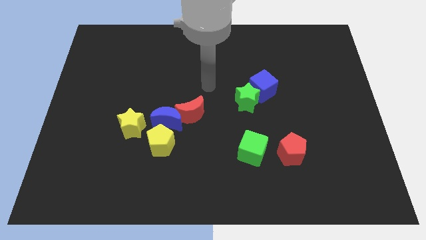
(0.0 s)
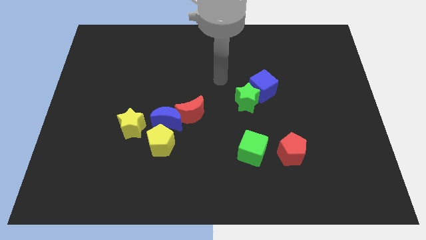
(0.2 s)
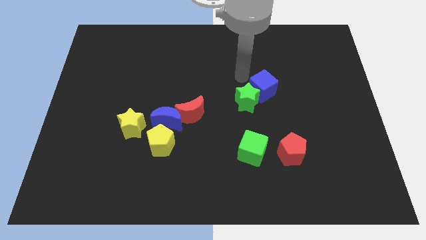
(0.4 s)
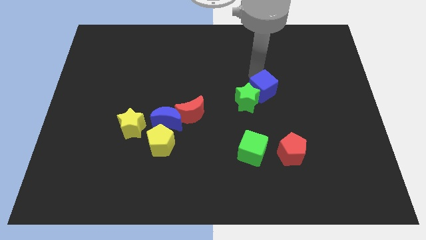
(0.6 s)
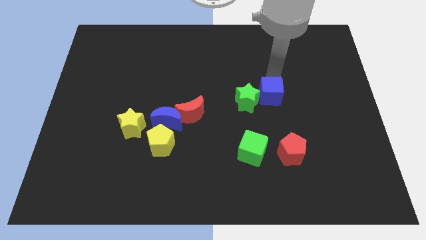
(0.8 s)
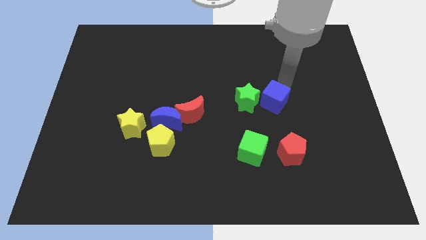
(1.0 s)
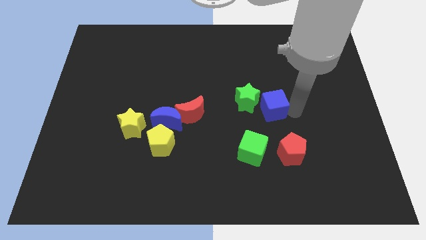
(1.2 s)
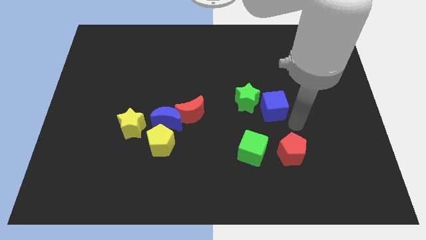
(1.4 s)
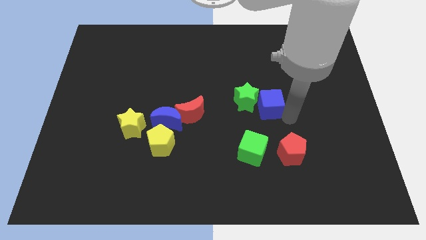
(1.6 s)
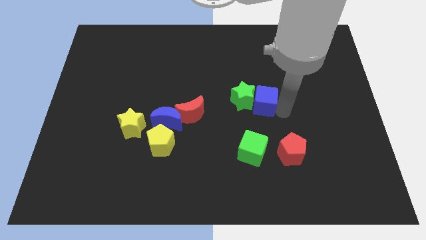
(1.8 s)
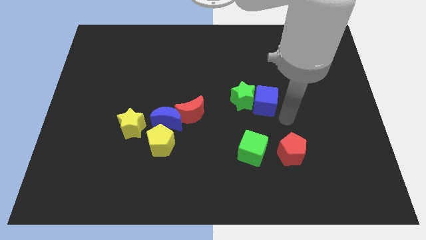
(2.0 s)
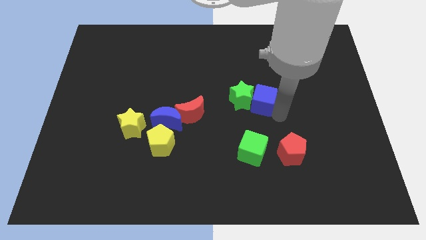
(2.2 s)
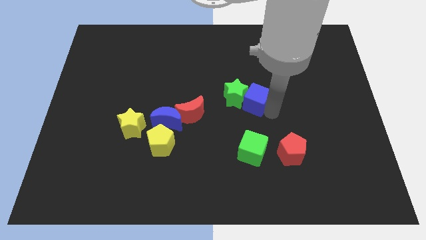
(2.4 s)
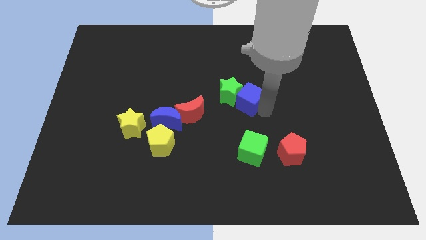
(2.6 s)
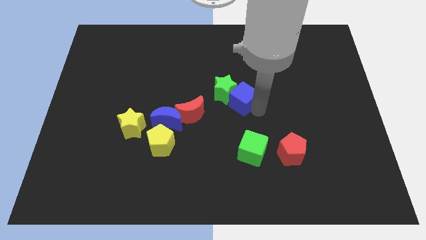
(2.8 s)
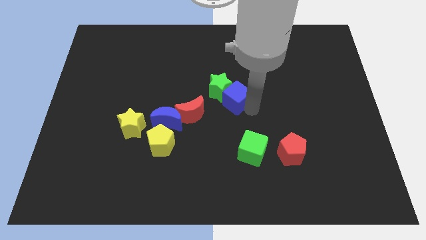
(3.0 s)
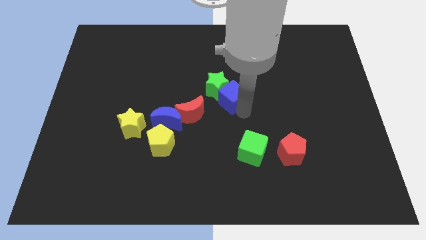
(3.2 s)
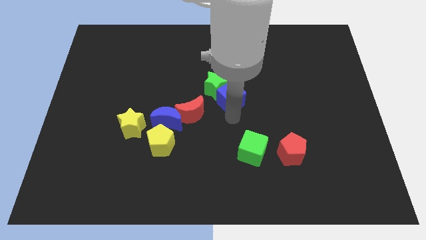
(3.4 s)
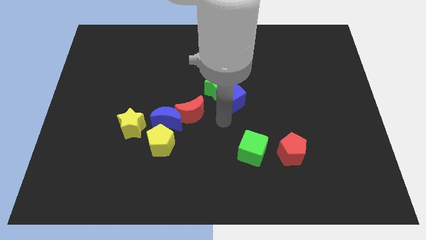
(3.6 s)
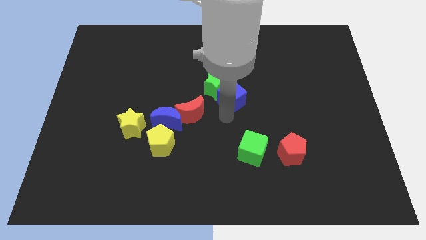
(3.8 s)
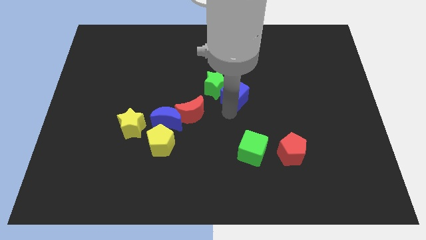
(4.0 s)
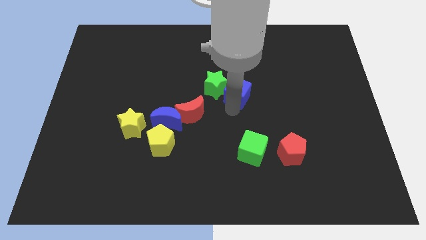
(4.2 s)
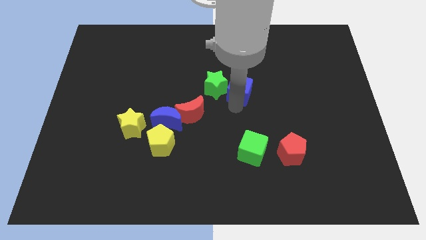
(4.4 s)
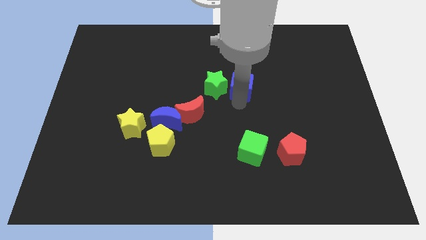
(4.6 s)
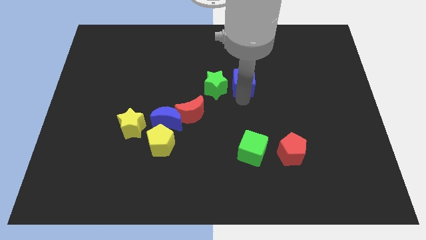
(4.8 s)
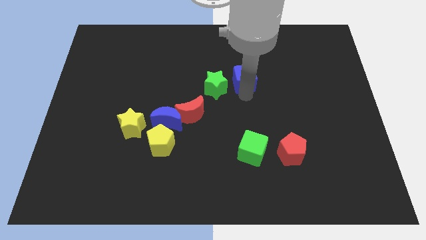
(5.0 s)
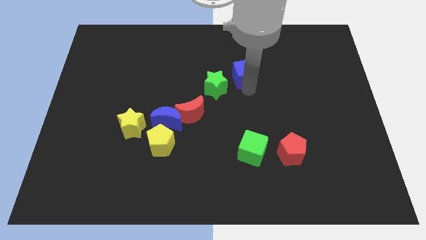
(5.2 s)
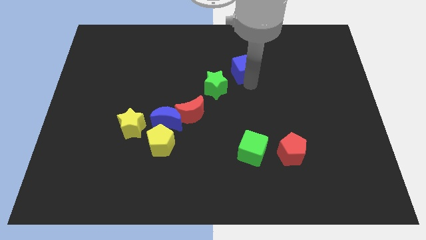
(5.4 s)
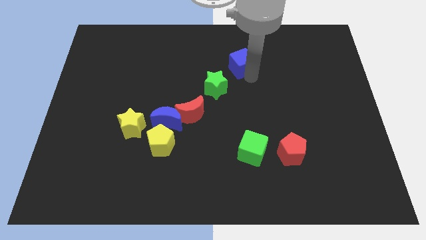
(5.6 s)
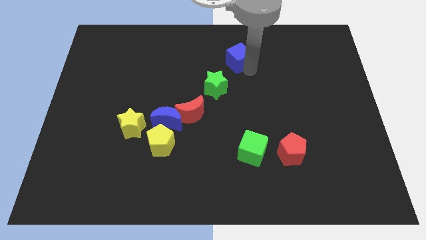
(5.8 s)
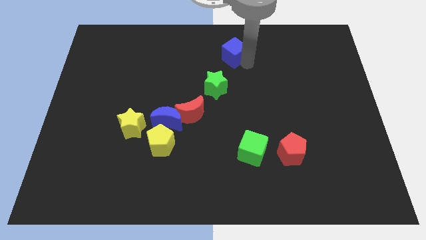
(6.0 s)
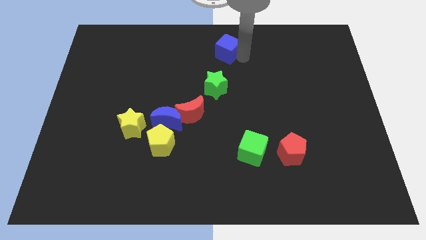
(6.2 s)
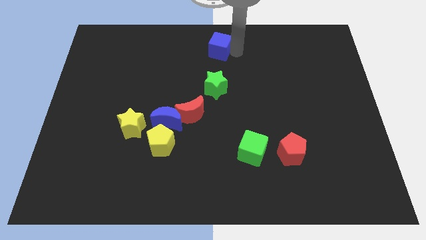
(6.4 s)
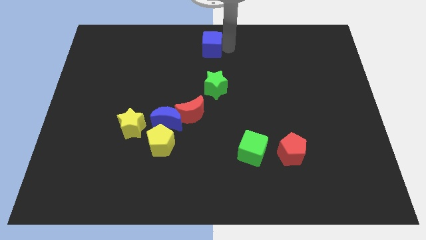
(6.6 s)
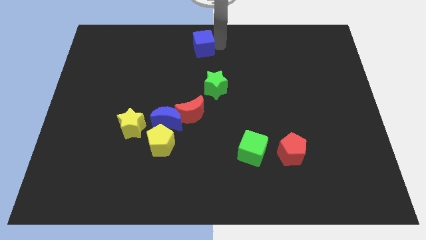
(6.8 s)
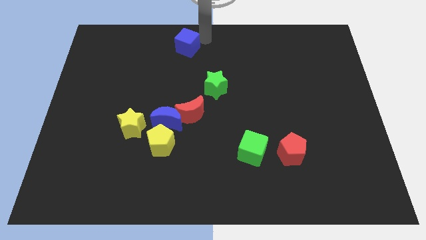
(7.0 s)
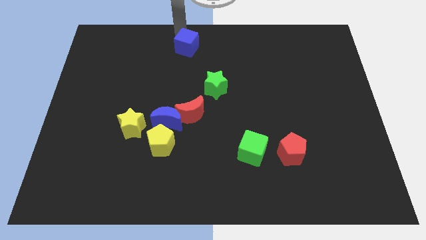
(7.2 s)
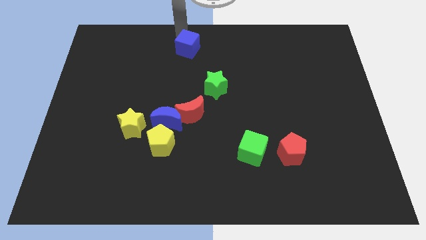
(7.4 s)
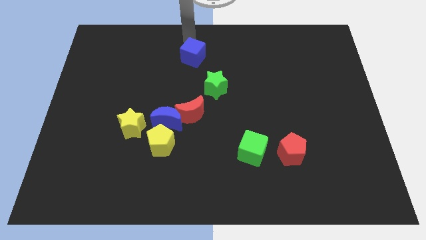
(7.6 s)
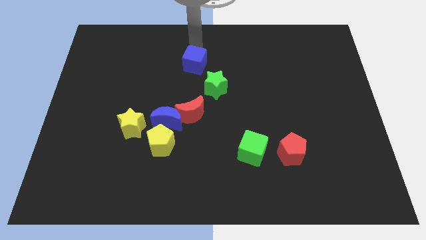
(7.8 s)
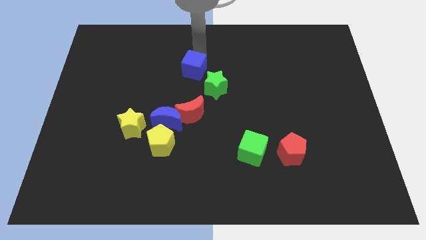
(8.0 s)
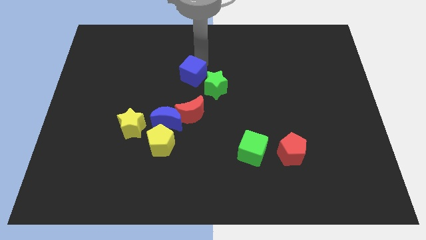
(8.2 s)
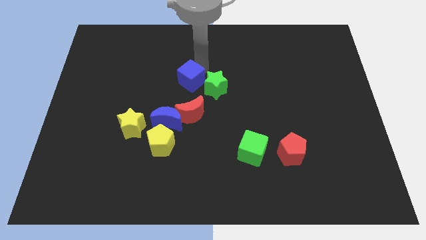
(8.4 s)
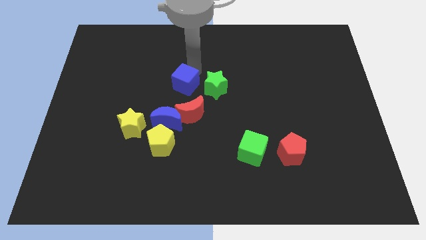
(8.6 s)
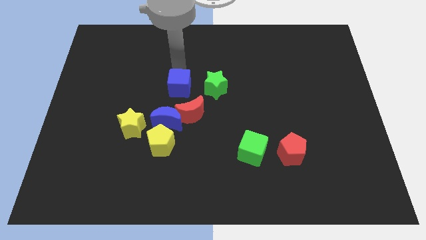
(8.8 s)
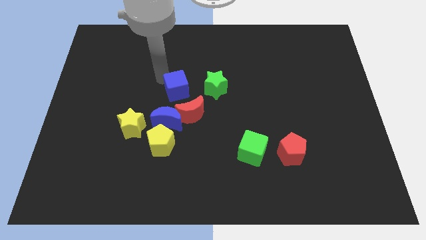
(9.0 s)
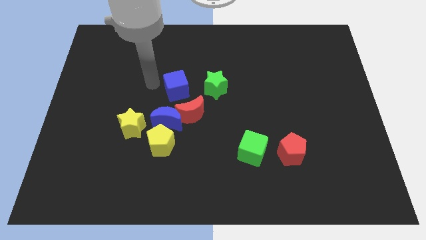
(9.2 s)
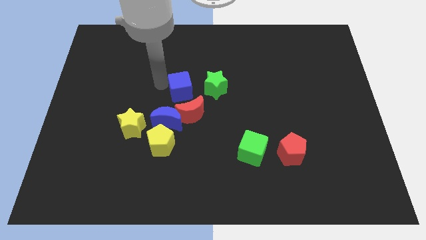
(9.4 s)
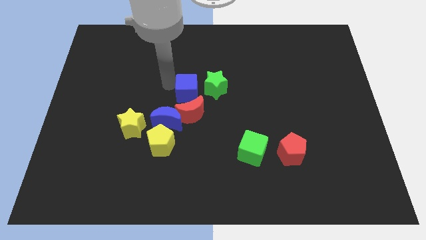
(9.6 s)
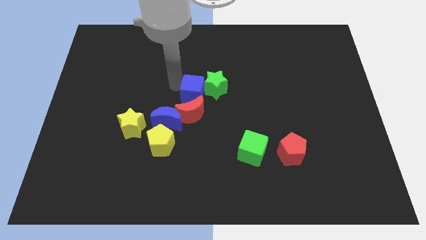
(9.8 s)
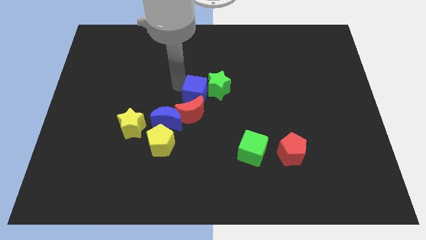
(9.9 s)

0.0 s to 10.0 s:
move the blue cube next to the red moon

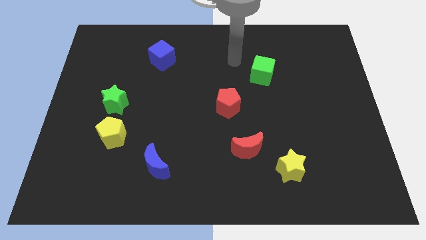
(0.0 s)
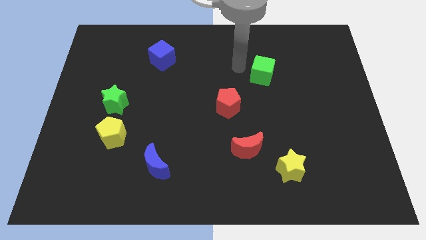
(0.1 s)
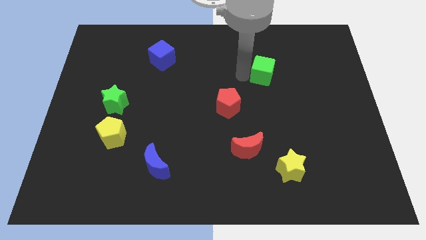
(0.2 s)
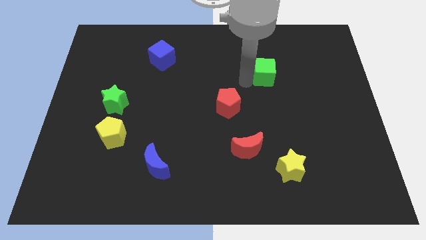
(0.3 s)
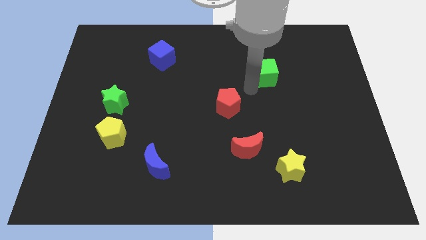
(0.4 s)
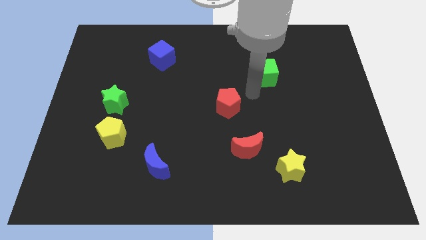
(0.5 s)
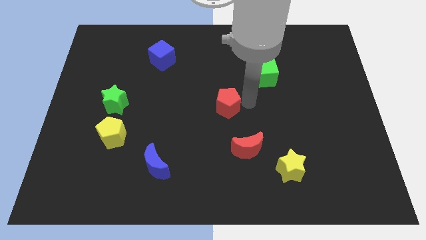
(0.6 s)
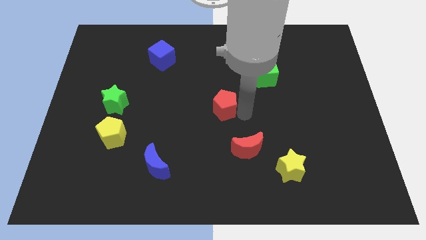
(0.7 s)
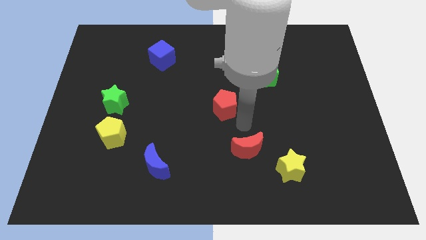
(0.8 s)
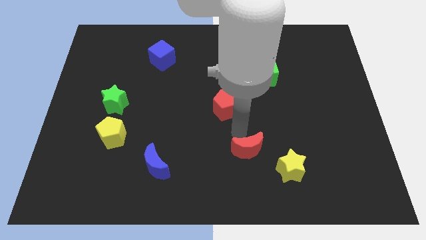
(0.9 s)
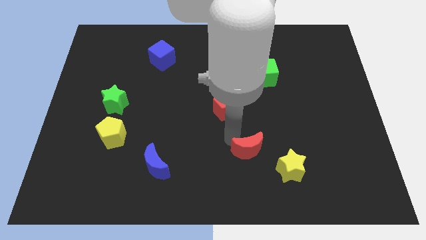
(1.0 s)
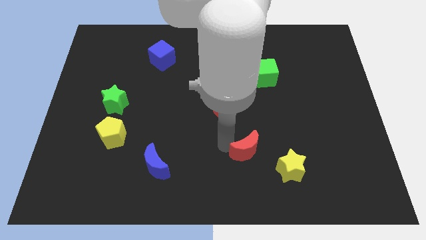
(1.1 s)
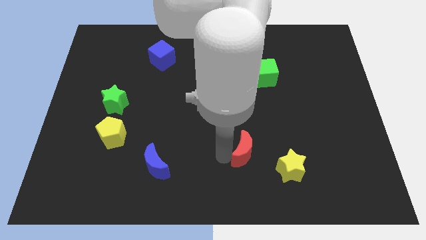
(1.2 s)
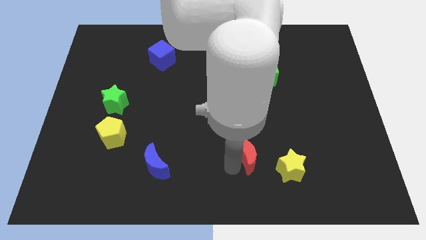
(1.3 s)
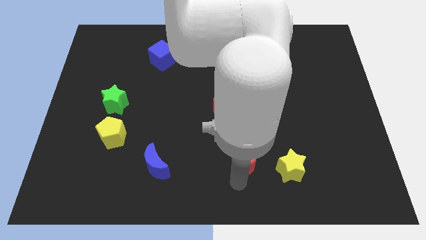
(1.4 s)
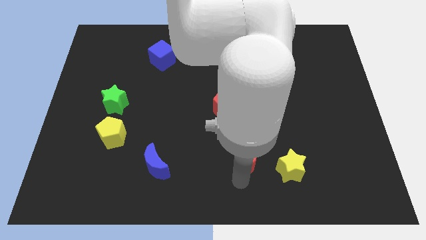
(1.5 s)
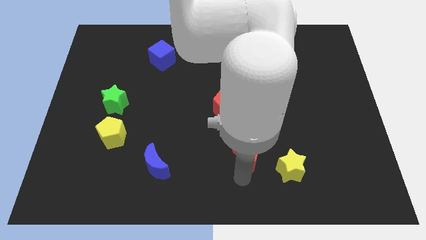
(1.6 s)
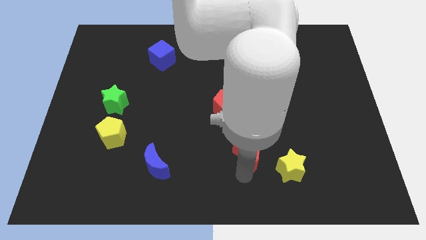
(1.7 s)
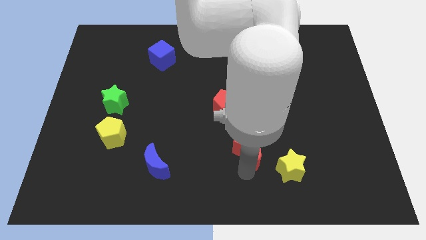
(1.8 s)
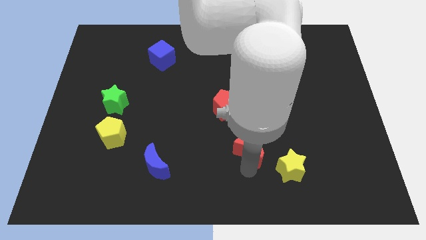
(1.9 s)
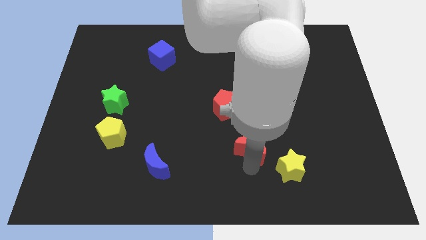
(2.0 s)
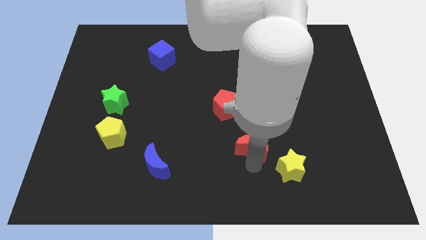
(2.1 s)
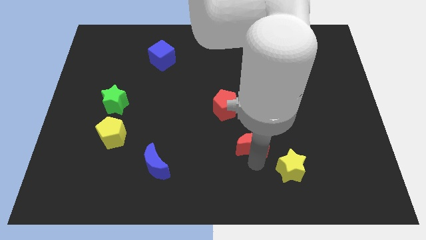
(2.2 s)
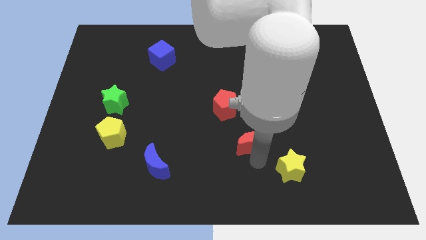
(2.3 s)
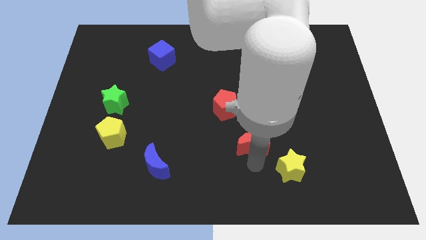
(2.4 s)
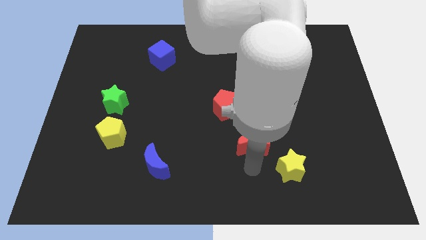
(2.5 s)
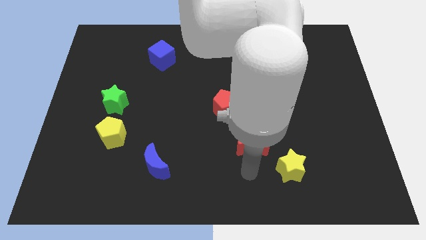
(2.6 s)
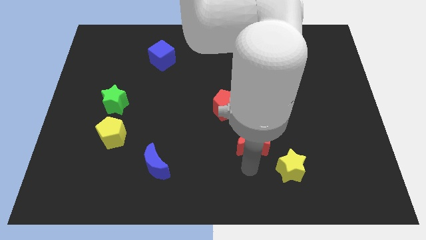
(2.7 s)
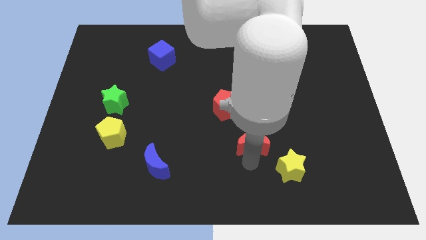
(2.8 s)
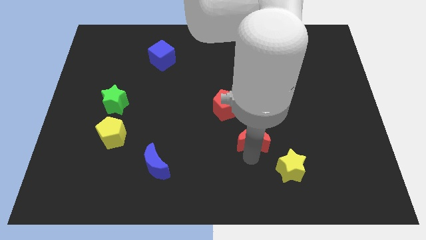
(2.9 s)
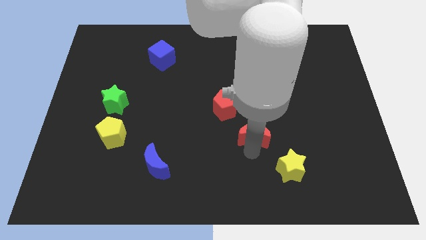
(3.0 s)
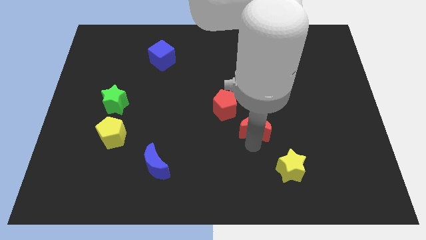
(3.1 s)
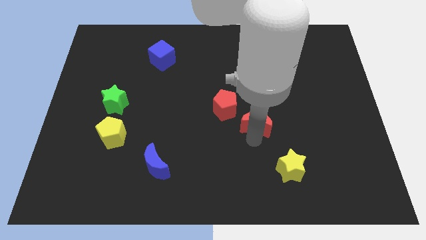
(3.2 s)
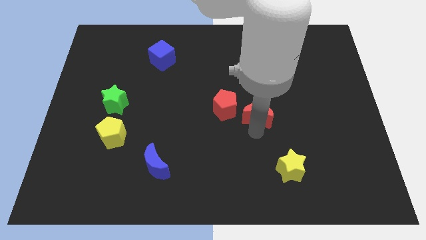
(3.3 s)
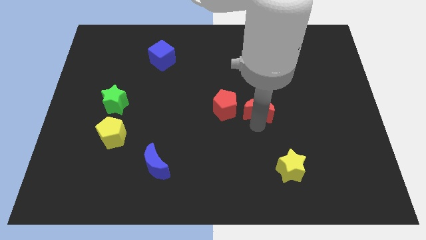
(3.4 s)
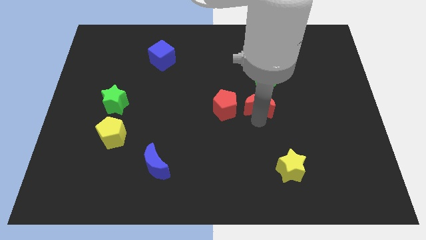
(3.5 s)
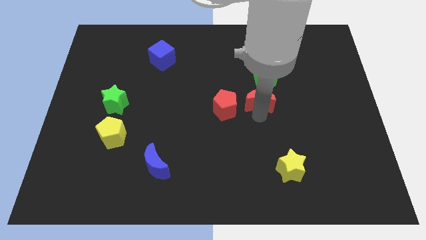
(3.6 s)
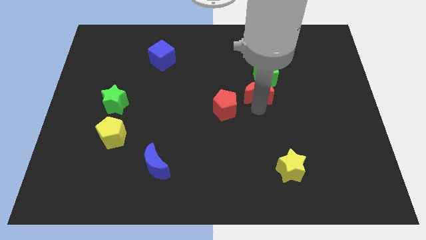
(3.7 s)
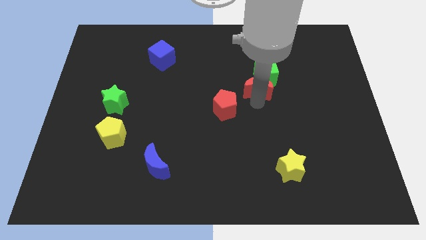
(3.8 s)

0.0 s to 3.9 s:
slide the red moon next to the green cube
